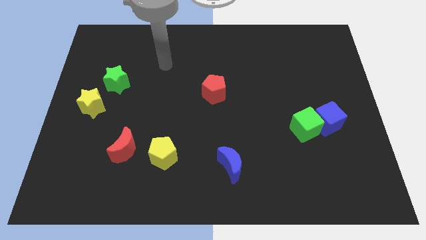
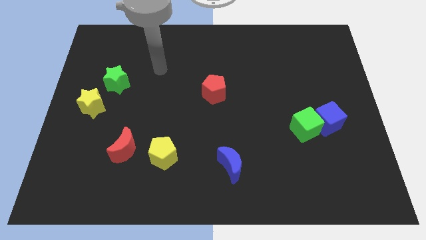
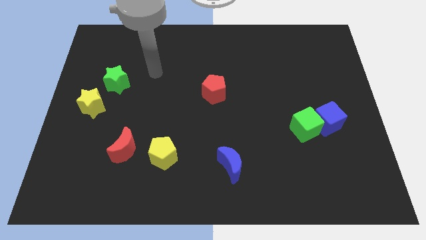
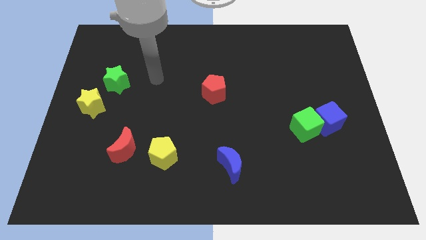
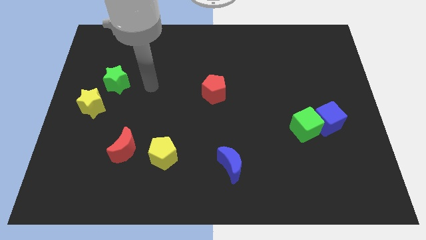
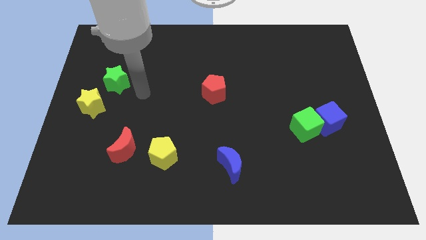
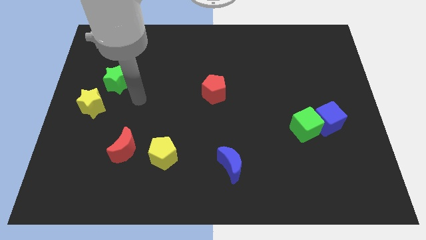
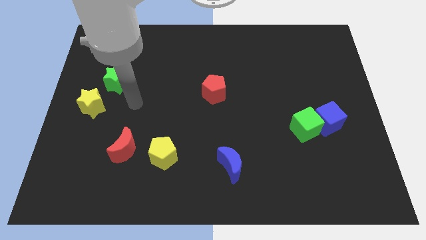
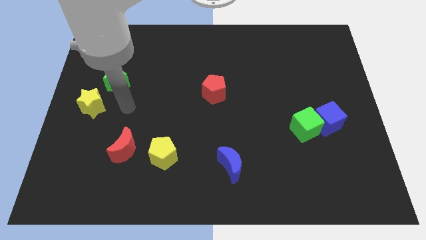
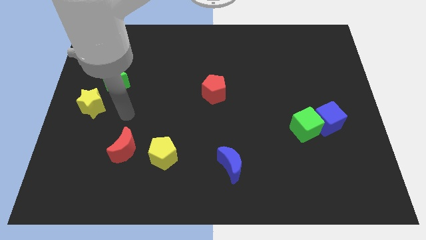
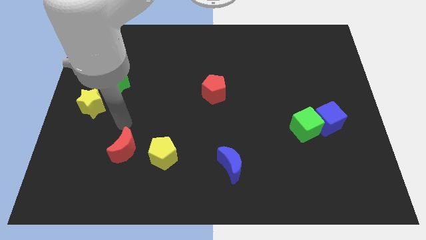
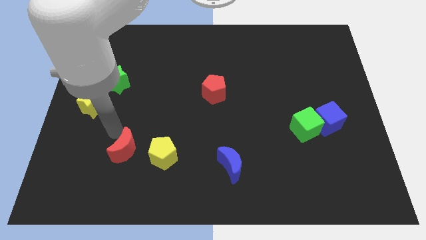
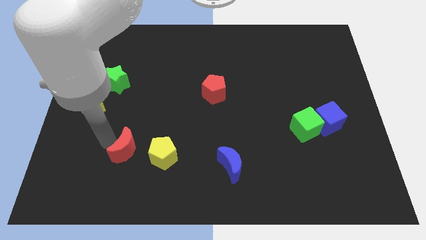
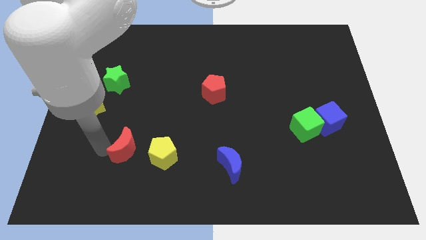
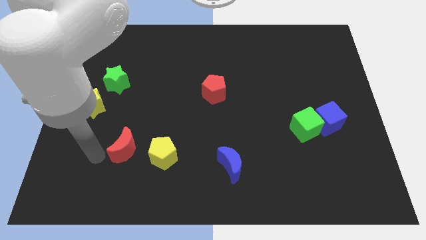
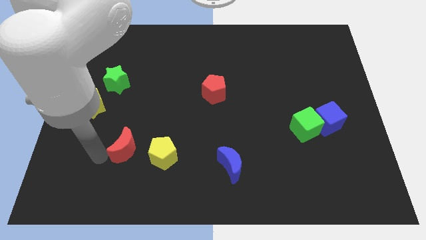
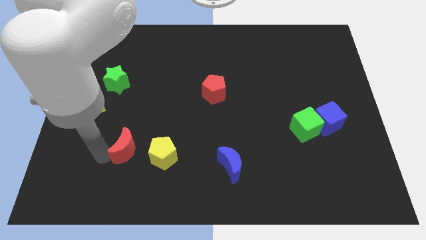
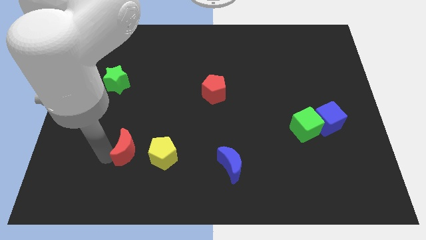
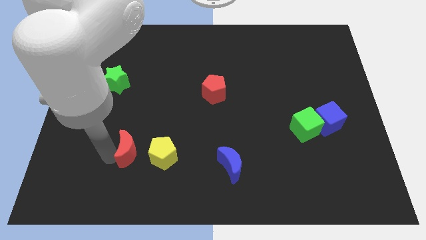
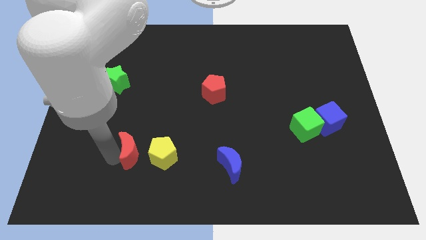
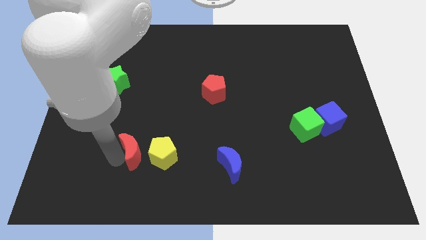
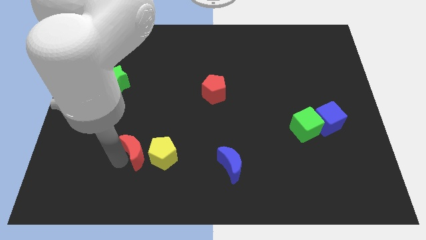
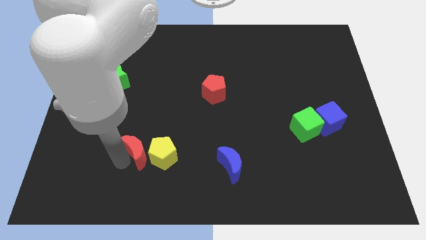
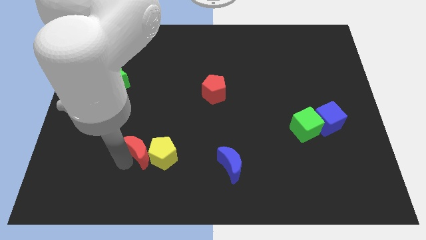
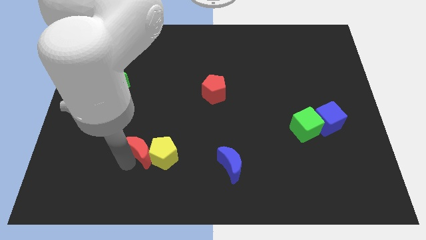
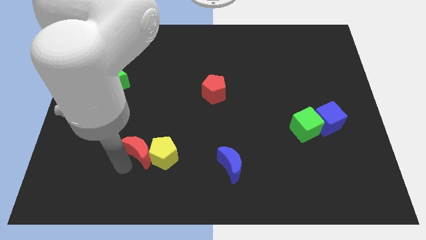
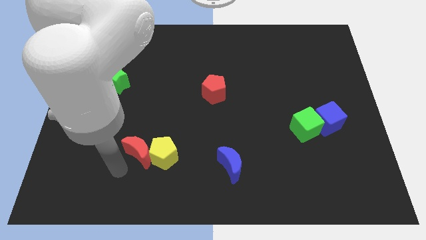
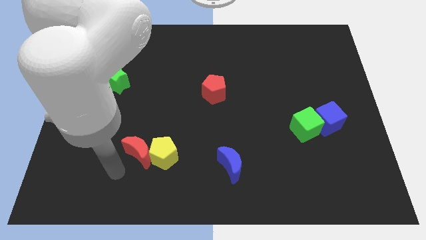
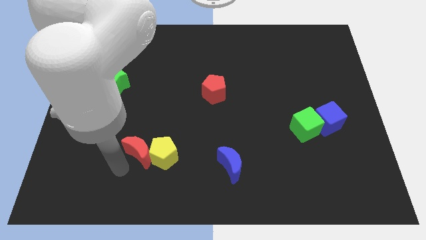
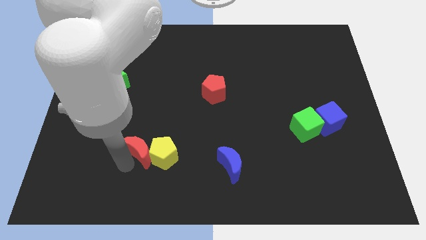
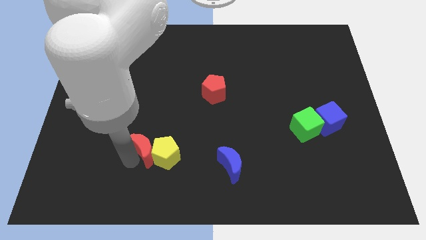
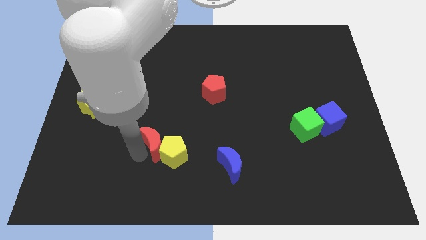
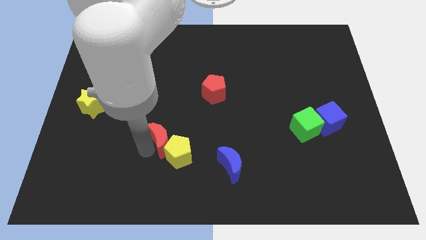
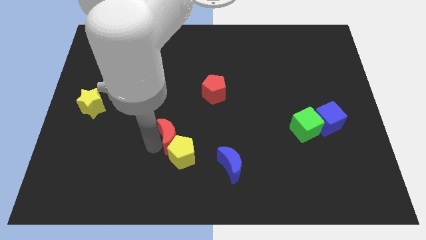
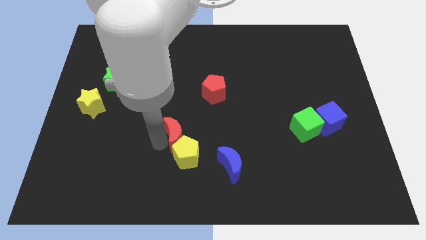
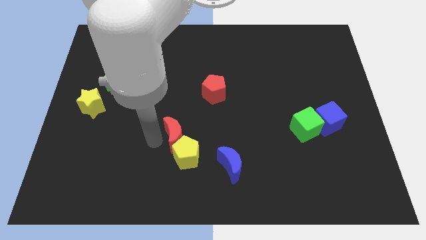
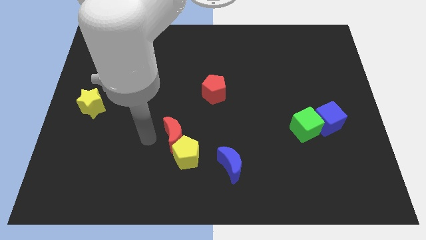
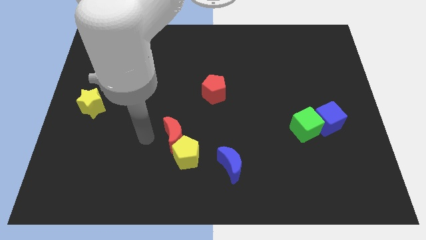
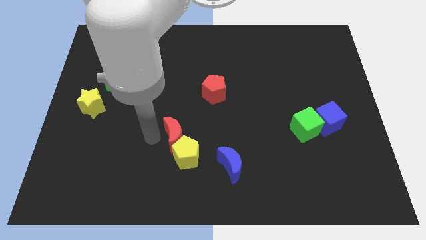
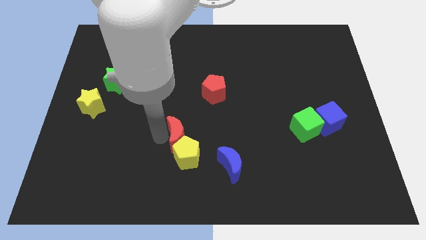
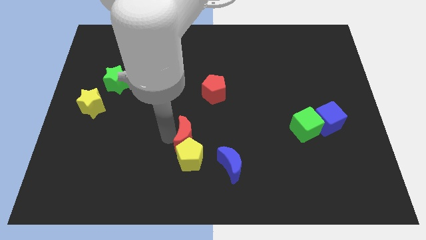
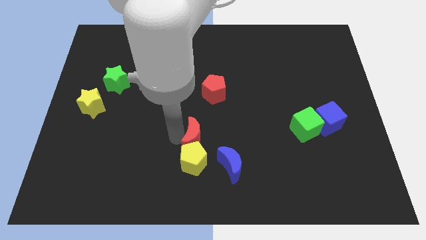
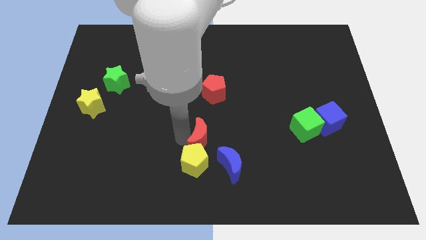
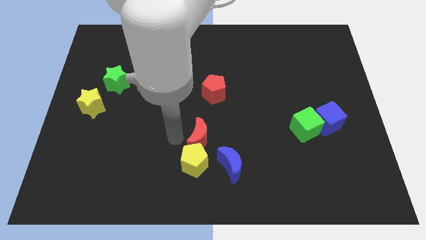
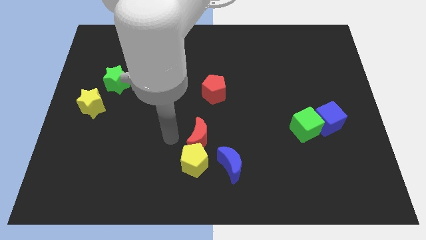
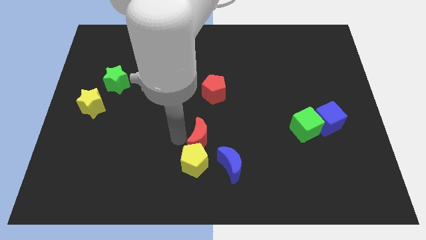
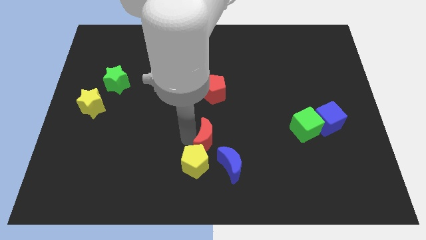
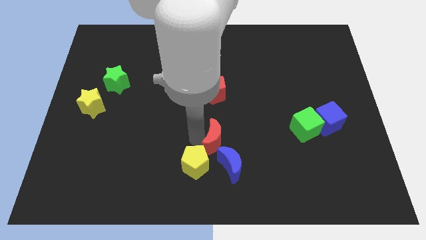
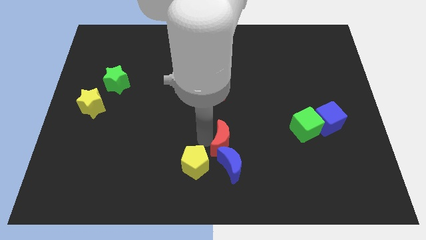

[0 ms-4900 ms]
push the red moon right

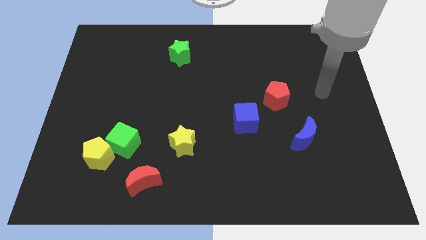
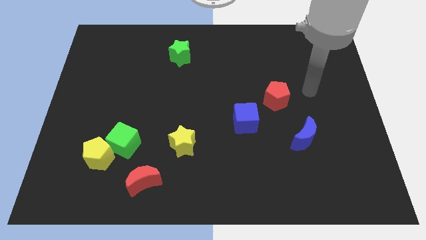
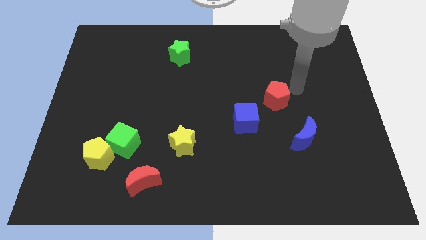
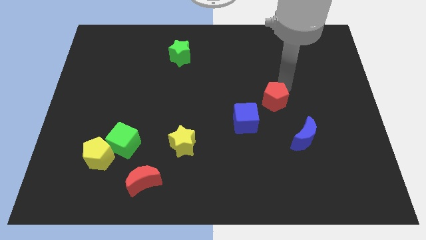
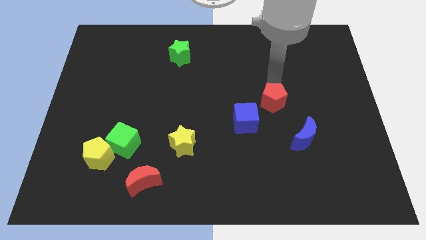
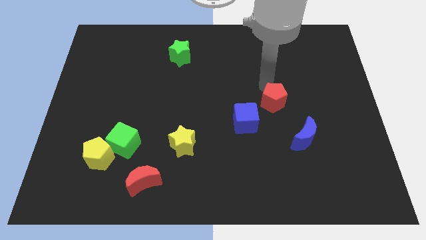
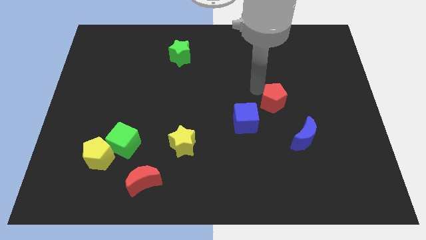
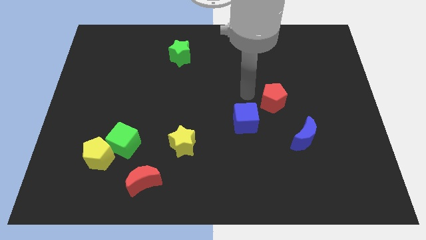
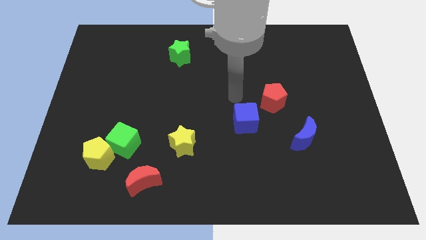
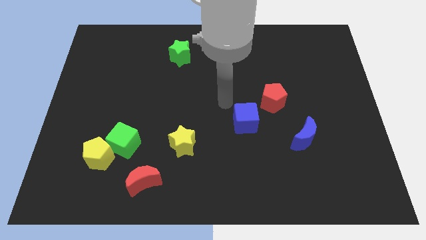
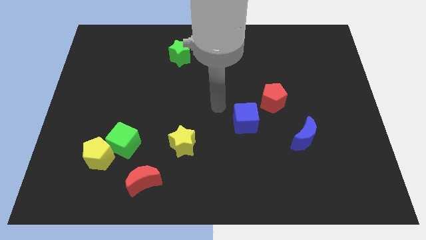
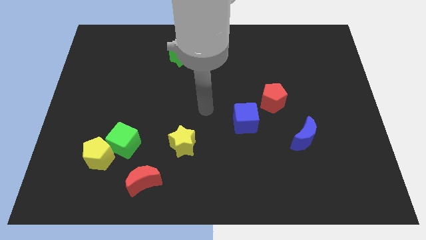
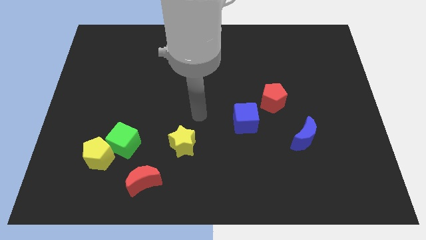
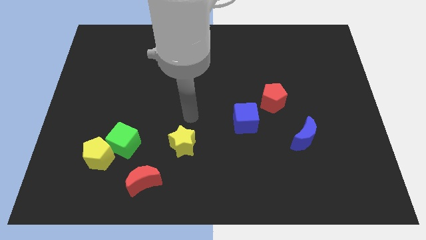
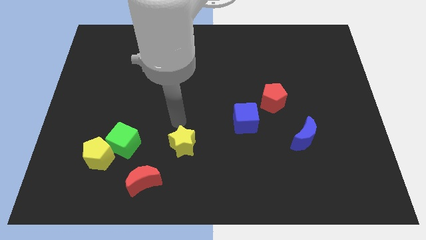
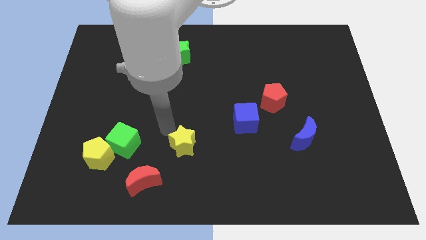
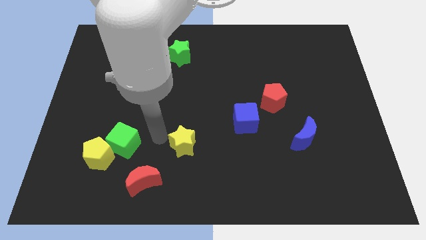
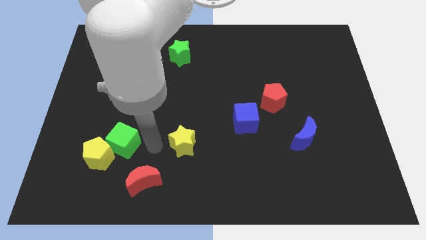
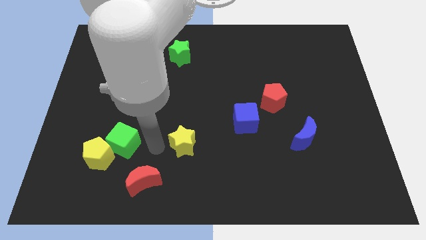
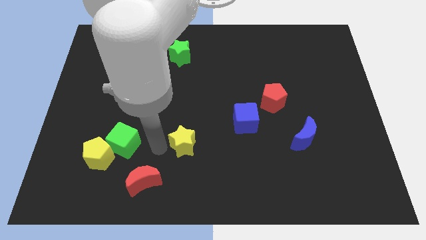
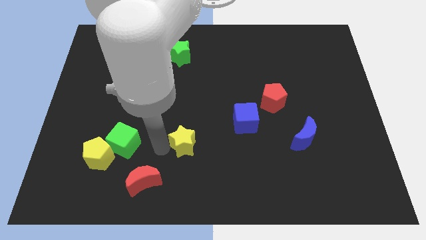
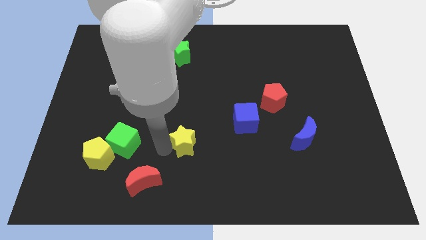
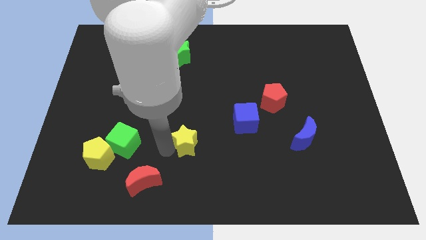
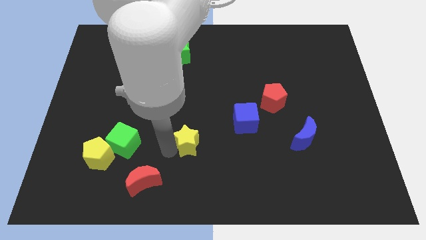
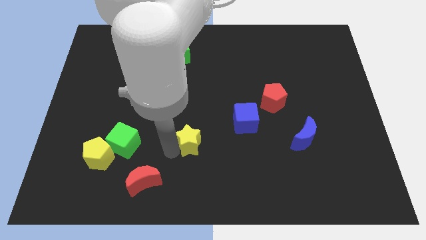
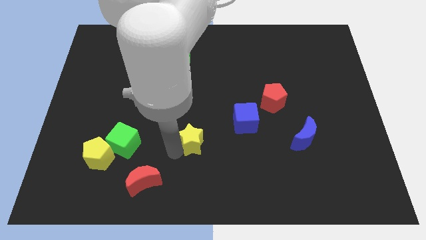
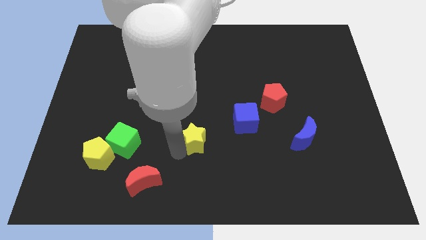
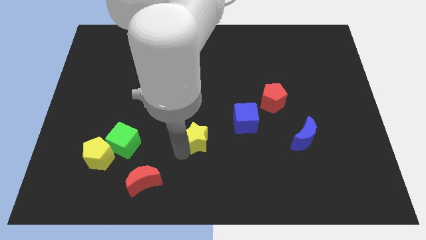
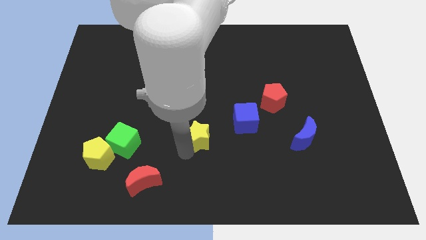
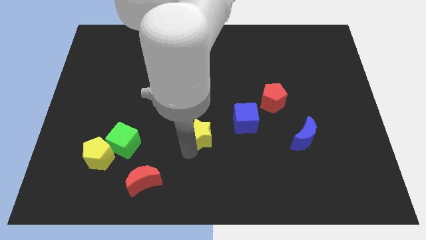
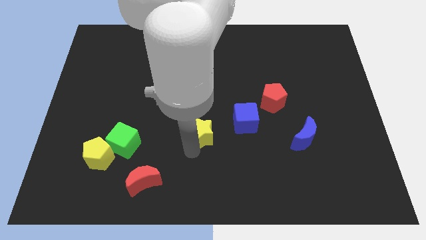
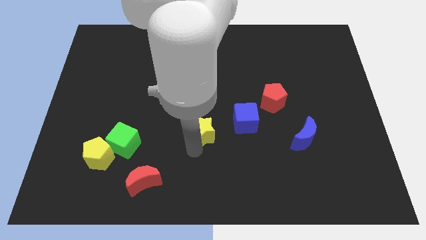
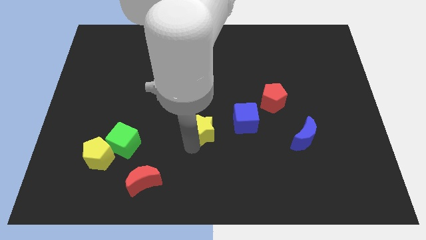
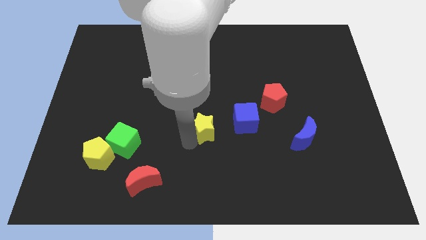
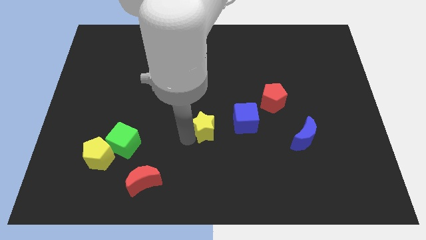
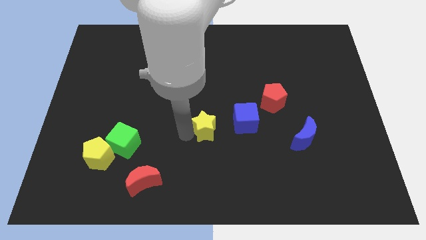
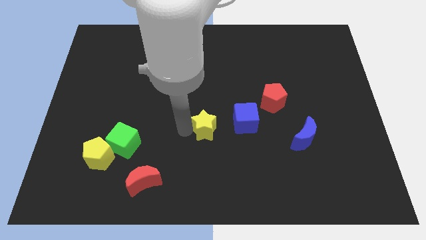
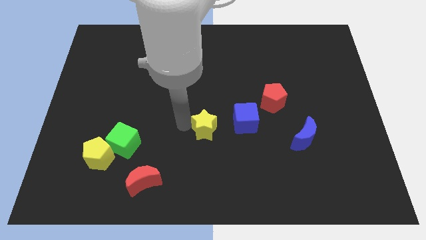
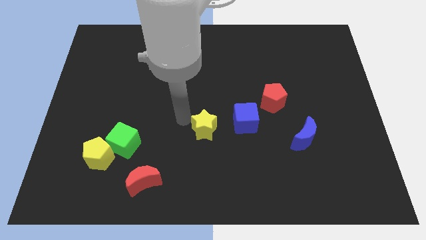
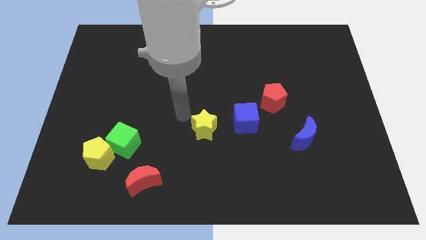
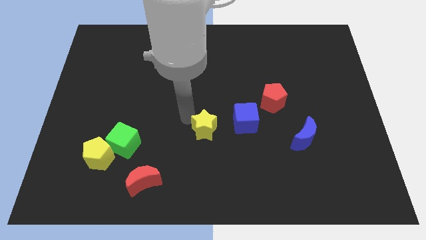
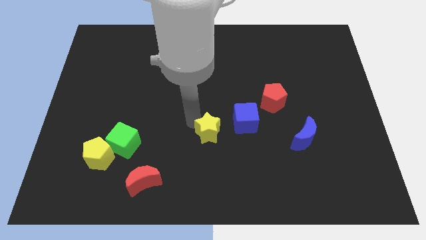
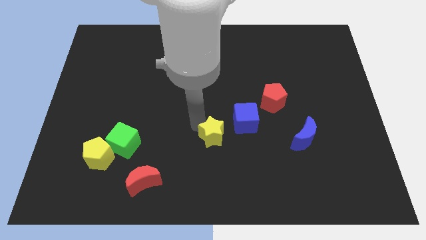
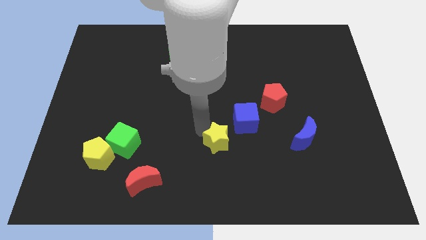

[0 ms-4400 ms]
slightly slide the yellow star to the right
